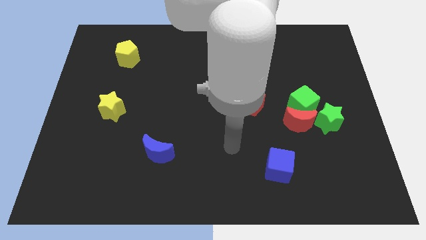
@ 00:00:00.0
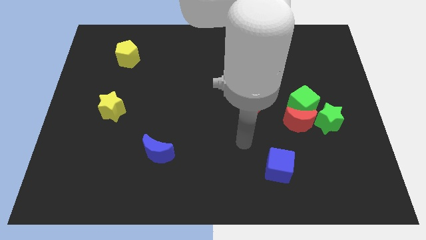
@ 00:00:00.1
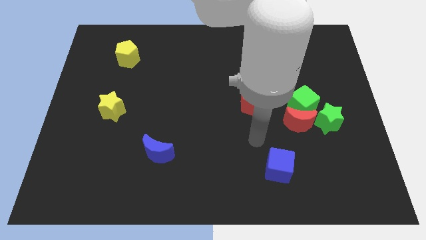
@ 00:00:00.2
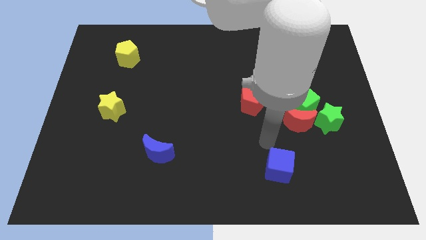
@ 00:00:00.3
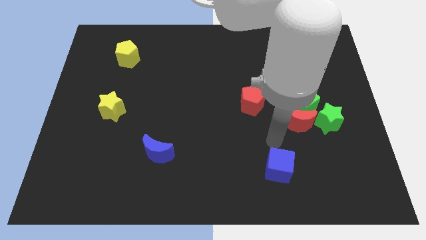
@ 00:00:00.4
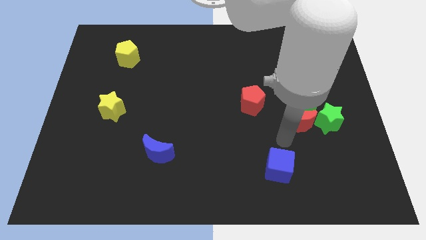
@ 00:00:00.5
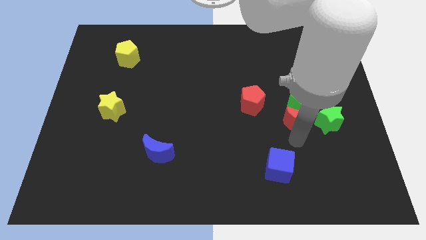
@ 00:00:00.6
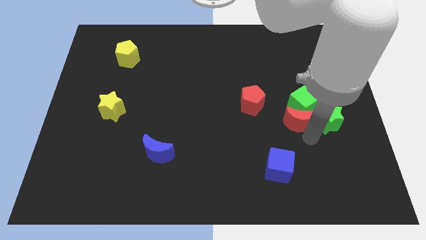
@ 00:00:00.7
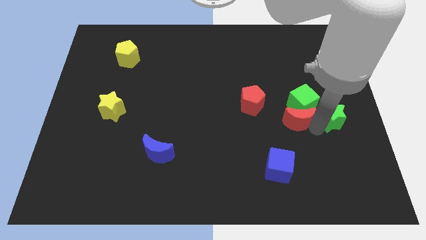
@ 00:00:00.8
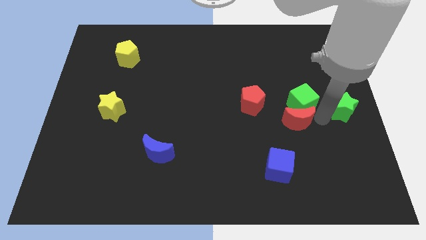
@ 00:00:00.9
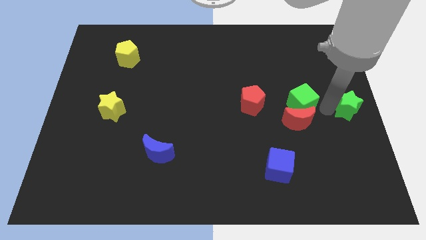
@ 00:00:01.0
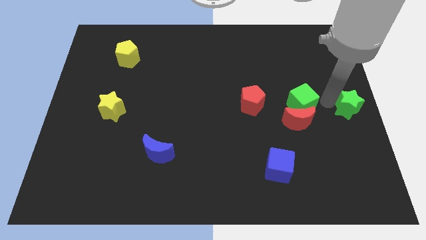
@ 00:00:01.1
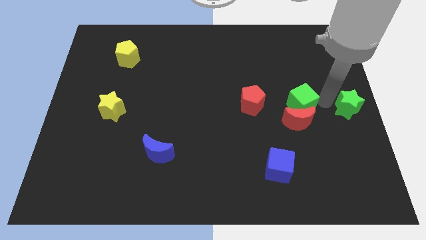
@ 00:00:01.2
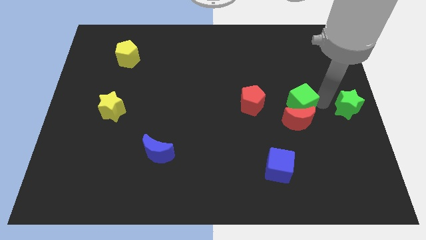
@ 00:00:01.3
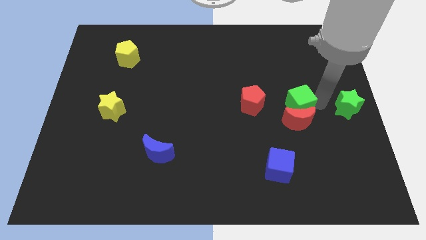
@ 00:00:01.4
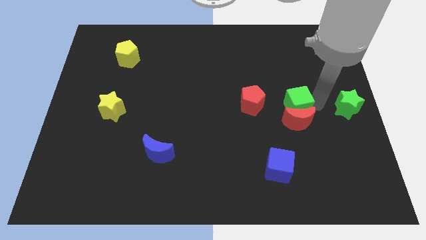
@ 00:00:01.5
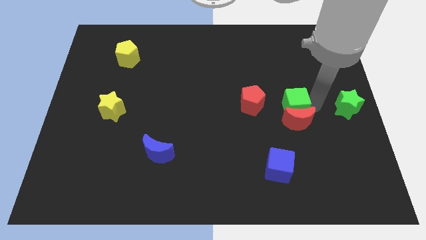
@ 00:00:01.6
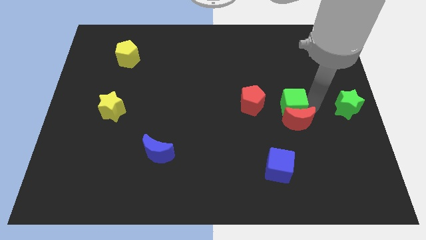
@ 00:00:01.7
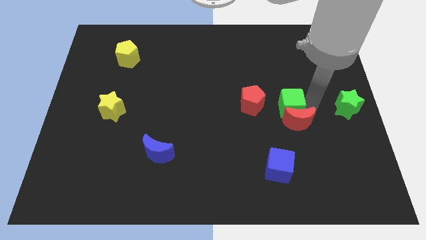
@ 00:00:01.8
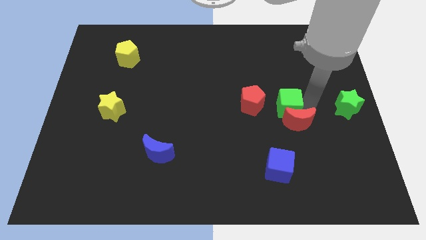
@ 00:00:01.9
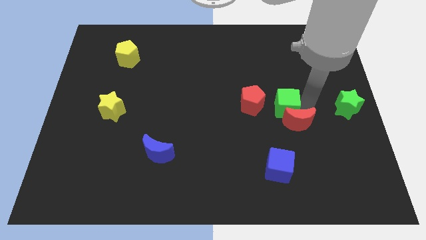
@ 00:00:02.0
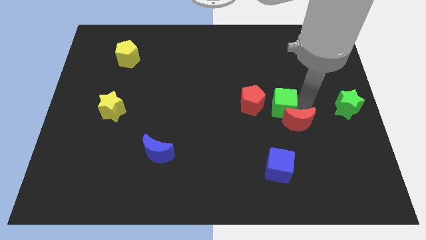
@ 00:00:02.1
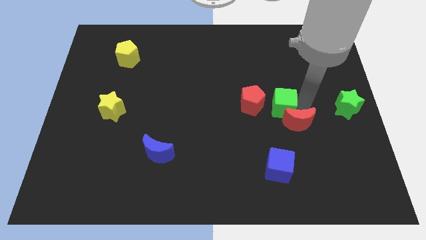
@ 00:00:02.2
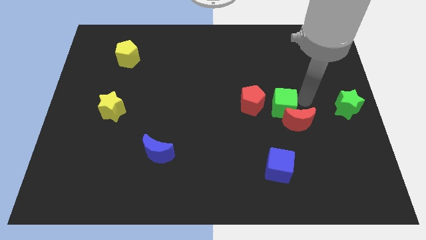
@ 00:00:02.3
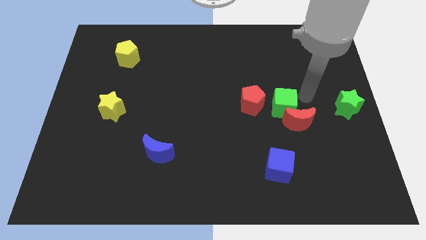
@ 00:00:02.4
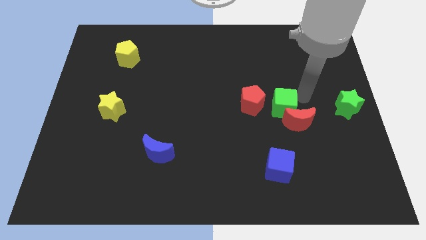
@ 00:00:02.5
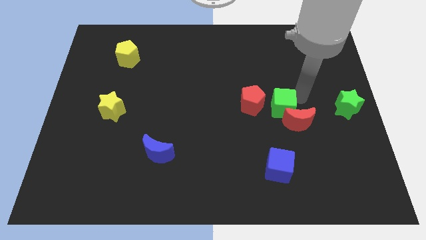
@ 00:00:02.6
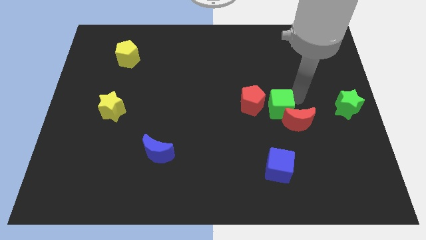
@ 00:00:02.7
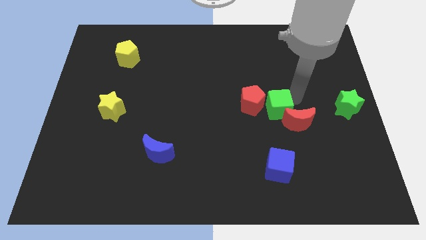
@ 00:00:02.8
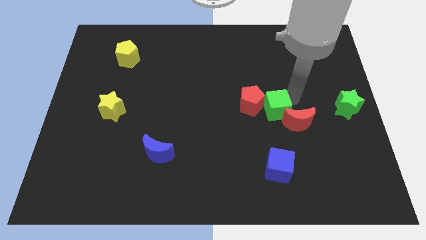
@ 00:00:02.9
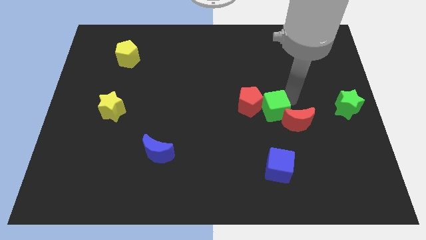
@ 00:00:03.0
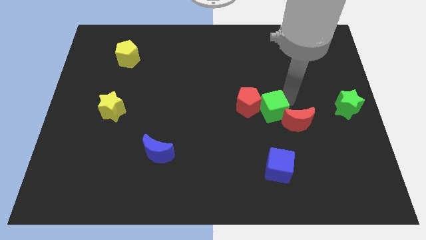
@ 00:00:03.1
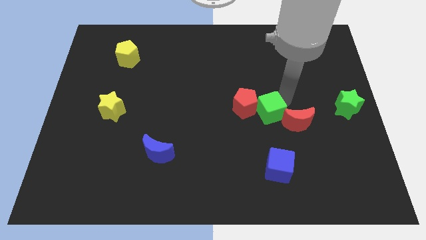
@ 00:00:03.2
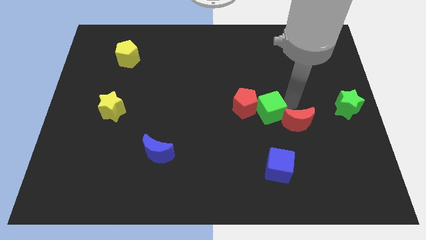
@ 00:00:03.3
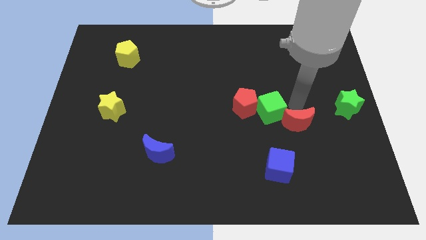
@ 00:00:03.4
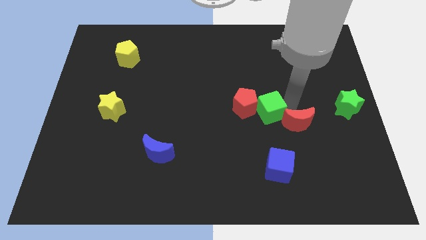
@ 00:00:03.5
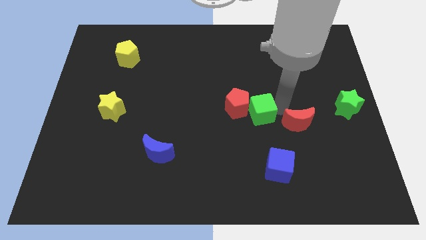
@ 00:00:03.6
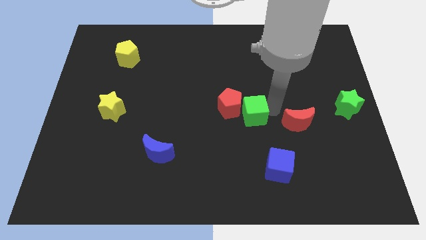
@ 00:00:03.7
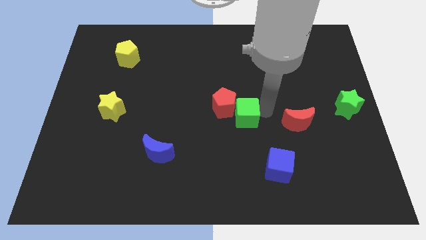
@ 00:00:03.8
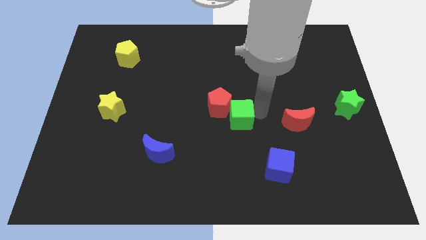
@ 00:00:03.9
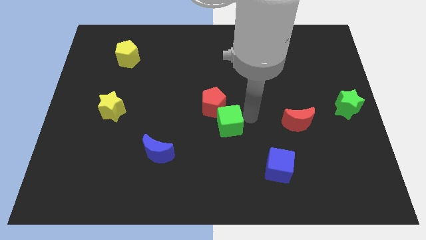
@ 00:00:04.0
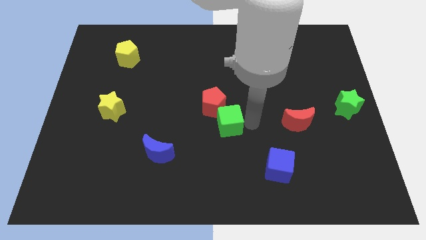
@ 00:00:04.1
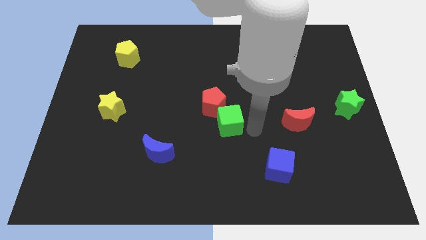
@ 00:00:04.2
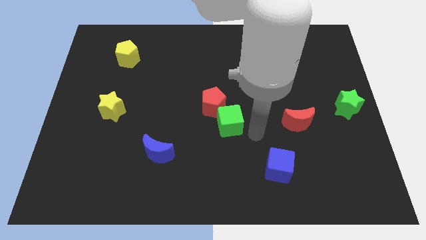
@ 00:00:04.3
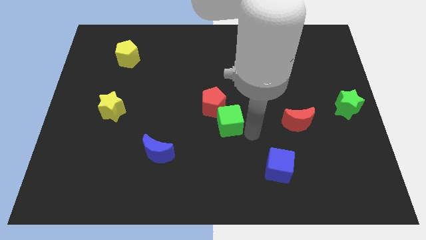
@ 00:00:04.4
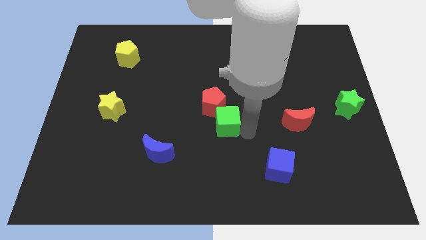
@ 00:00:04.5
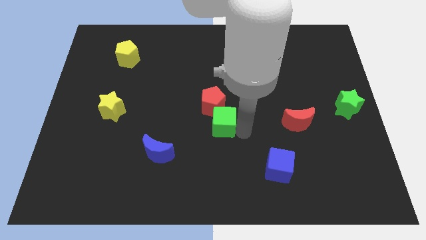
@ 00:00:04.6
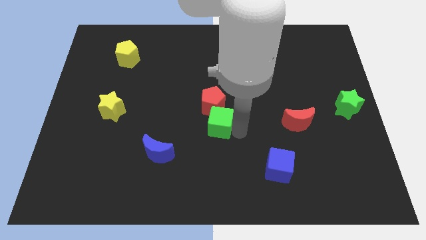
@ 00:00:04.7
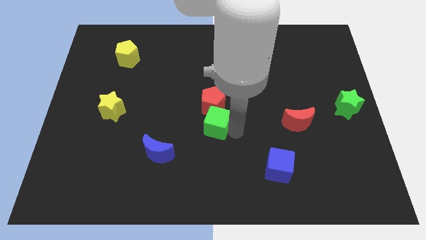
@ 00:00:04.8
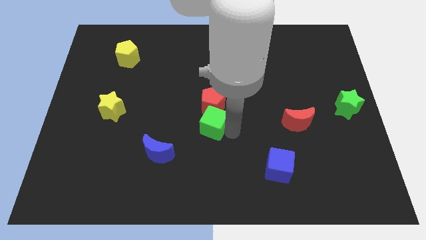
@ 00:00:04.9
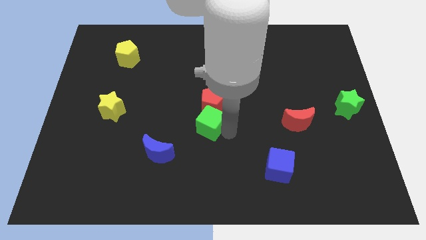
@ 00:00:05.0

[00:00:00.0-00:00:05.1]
slide the green cube left

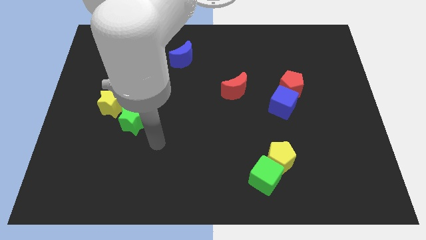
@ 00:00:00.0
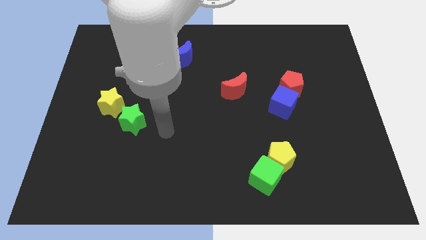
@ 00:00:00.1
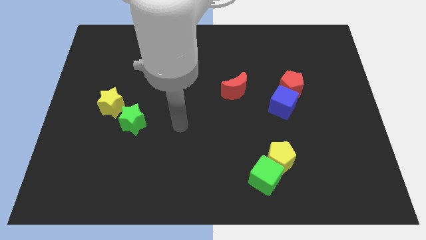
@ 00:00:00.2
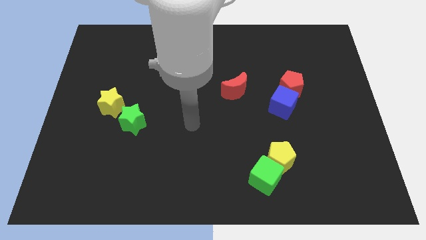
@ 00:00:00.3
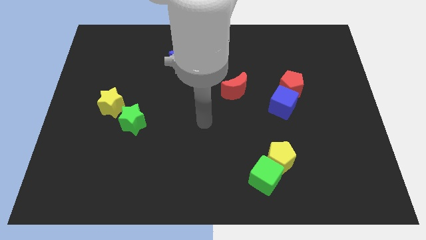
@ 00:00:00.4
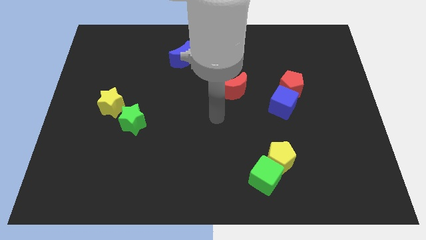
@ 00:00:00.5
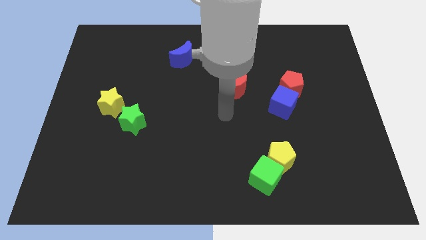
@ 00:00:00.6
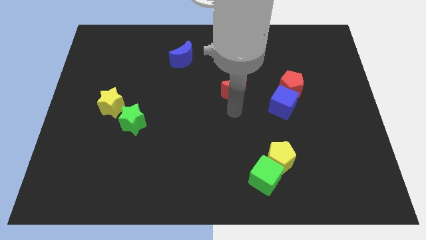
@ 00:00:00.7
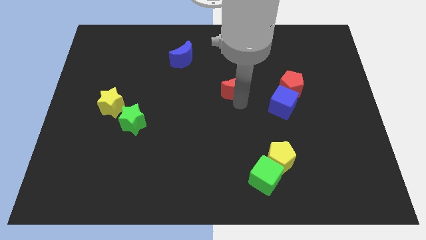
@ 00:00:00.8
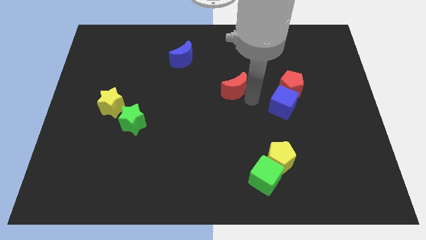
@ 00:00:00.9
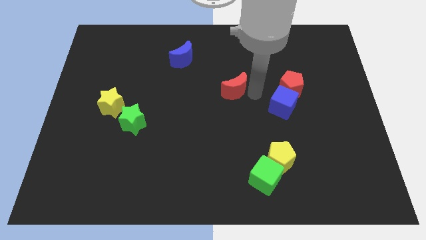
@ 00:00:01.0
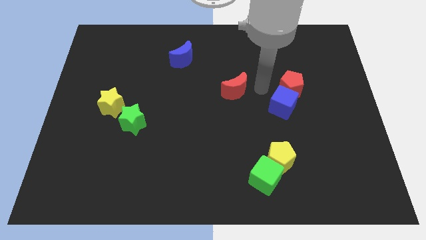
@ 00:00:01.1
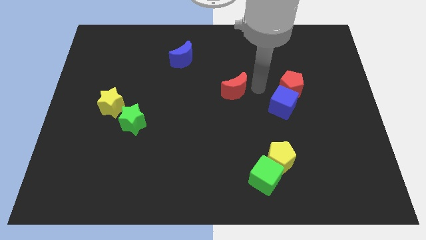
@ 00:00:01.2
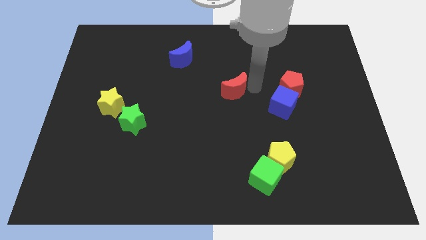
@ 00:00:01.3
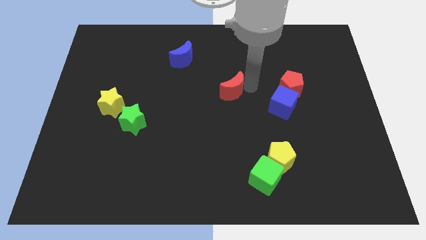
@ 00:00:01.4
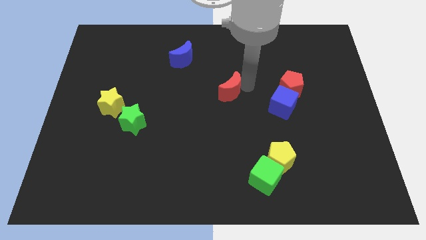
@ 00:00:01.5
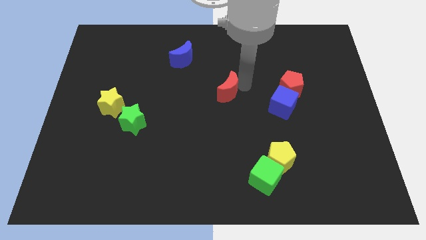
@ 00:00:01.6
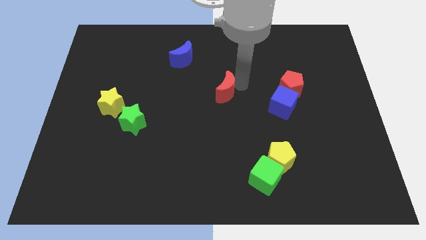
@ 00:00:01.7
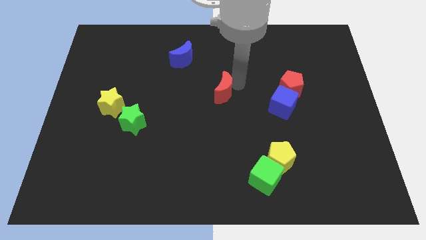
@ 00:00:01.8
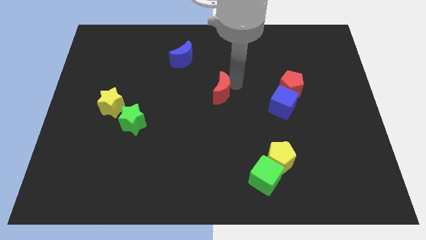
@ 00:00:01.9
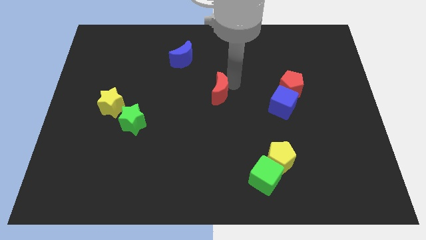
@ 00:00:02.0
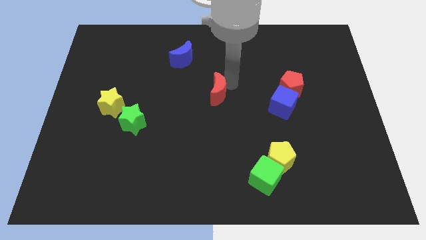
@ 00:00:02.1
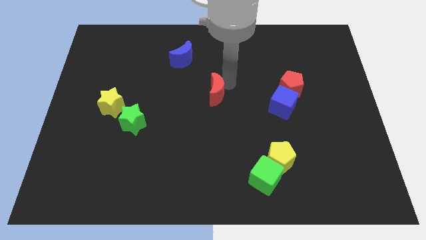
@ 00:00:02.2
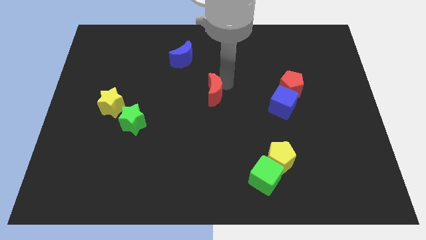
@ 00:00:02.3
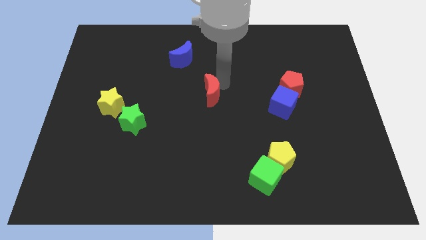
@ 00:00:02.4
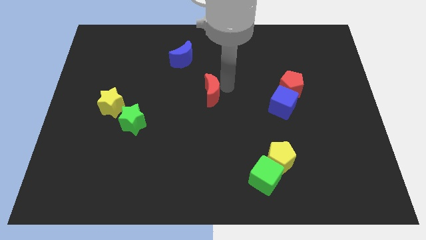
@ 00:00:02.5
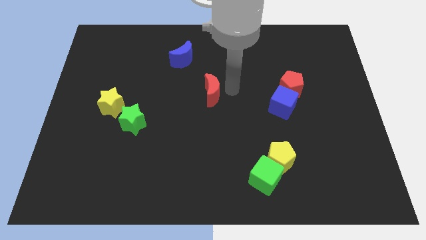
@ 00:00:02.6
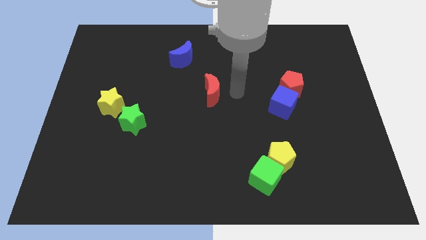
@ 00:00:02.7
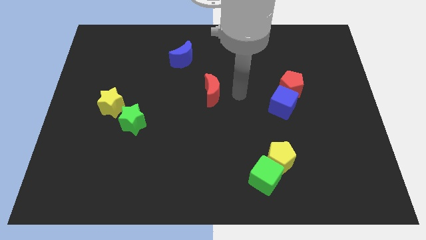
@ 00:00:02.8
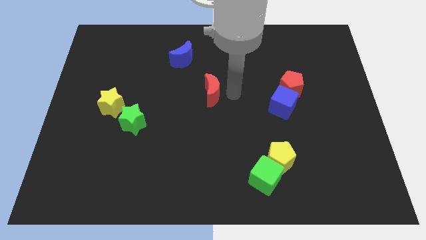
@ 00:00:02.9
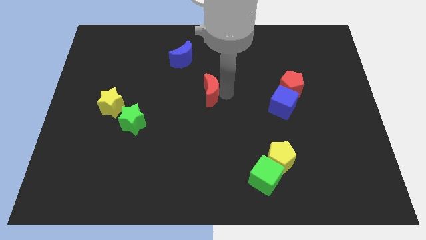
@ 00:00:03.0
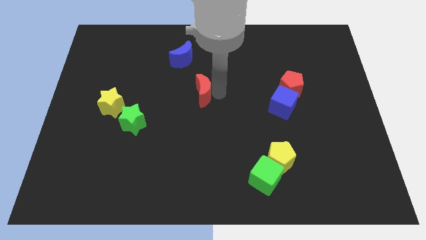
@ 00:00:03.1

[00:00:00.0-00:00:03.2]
push the red moon a little bit left
